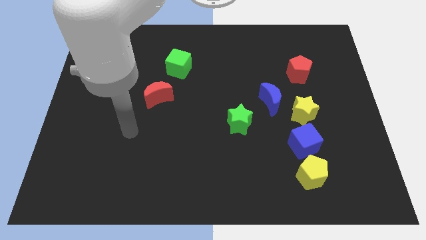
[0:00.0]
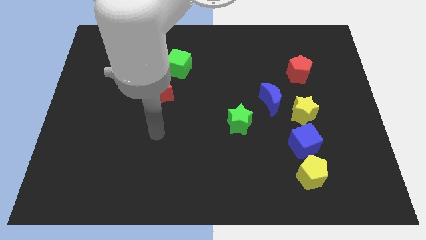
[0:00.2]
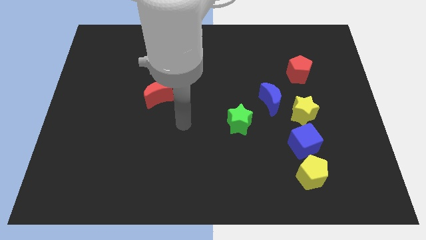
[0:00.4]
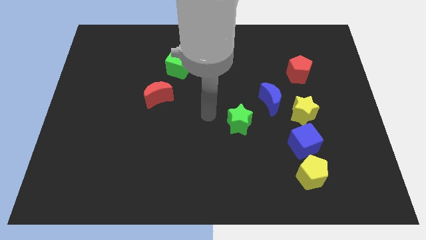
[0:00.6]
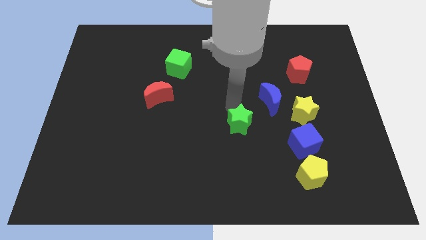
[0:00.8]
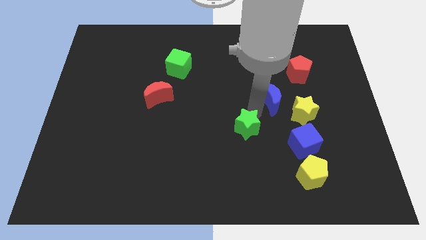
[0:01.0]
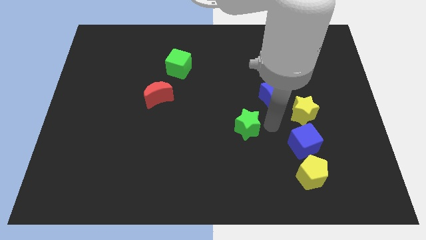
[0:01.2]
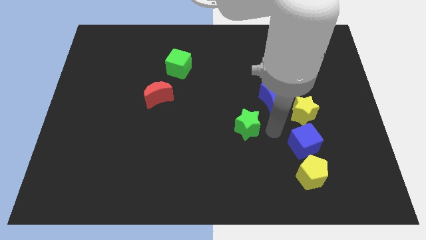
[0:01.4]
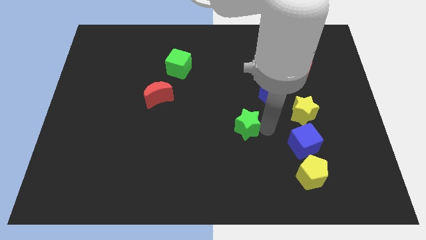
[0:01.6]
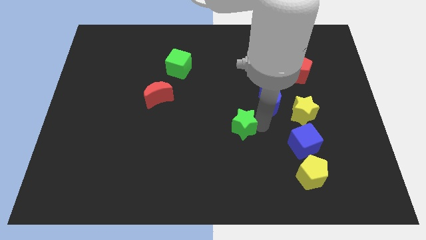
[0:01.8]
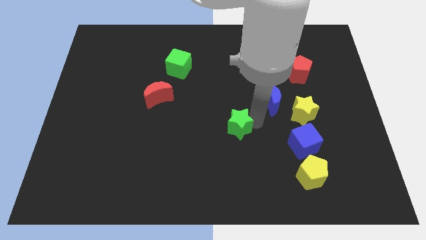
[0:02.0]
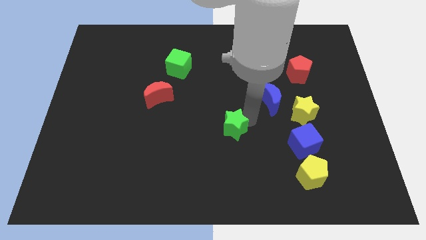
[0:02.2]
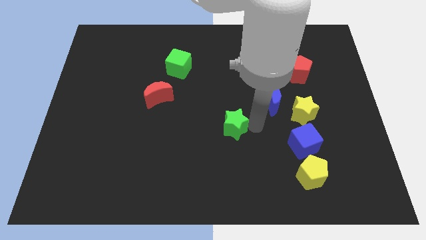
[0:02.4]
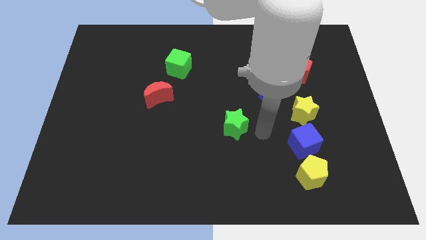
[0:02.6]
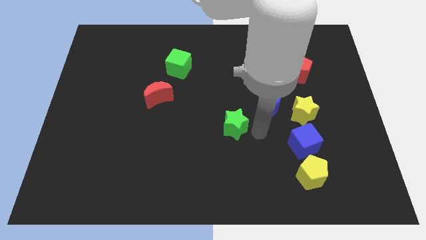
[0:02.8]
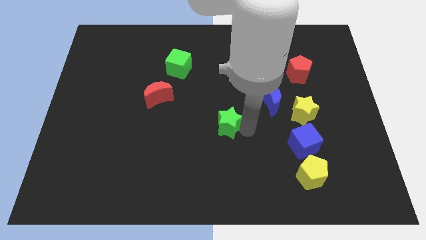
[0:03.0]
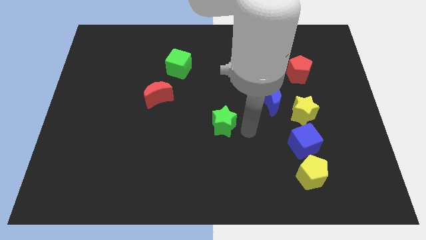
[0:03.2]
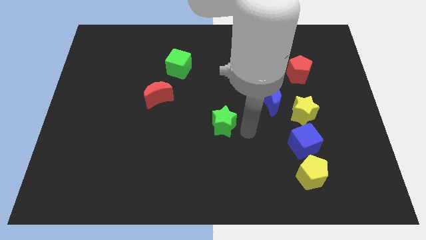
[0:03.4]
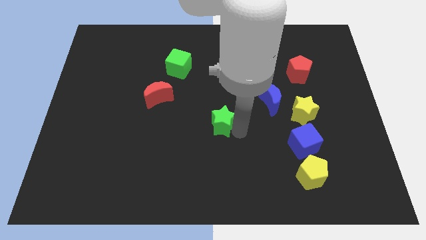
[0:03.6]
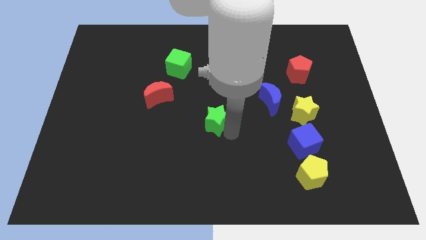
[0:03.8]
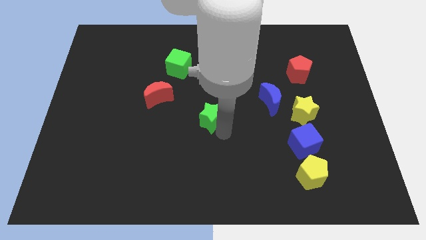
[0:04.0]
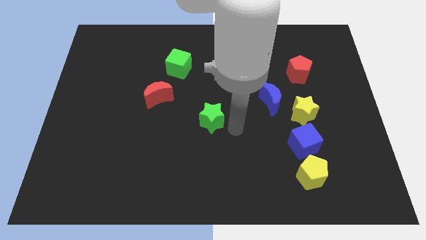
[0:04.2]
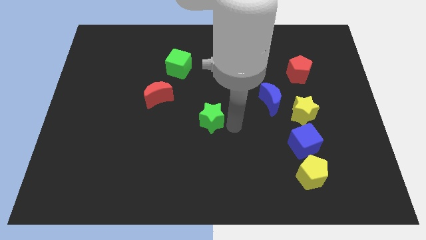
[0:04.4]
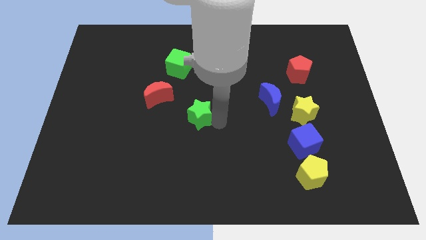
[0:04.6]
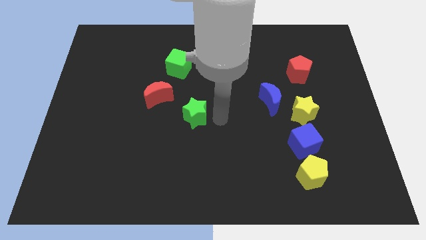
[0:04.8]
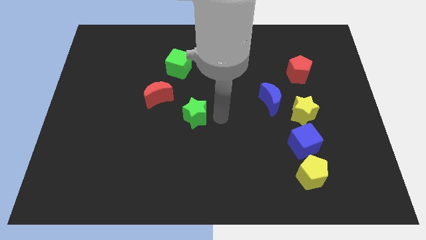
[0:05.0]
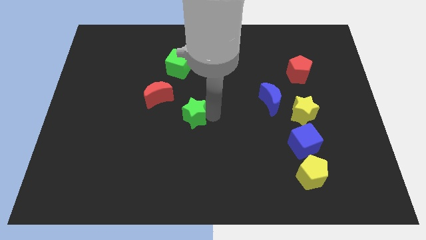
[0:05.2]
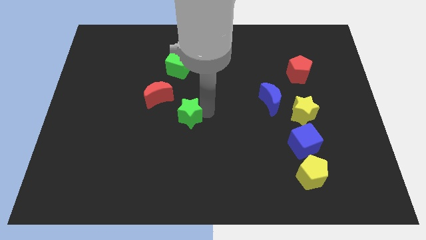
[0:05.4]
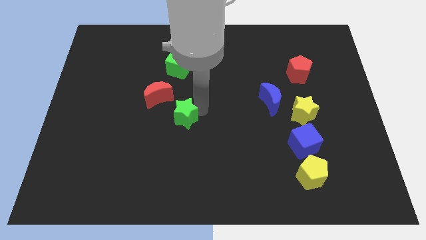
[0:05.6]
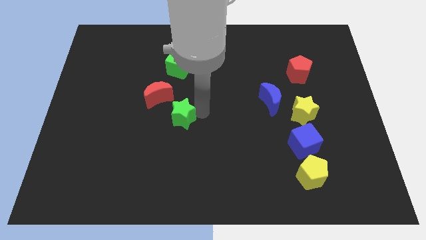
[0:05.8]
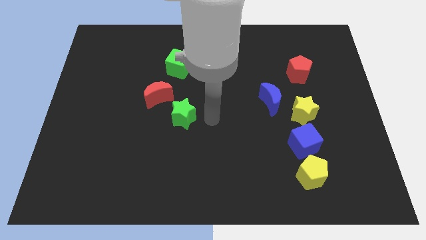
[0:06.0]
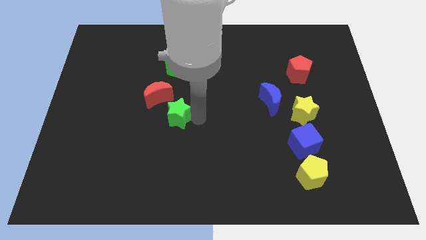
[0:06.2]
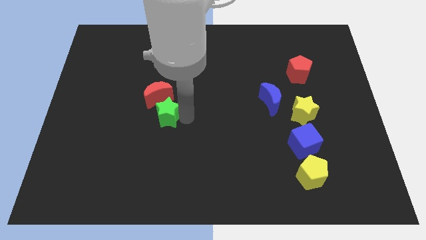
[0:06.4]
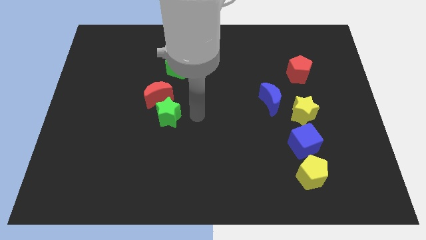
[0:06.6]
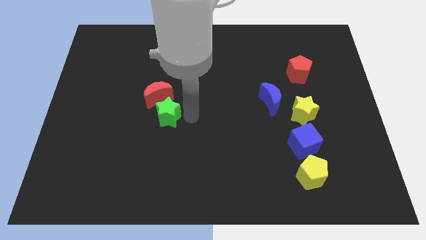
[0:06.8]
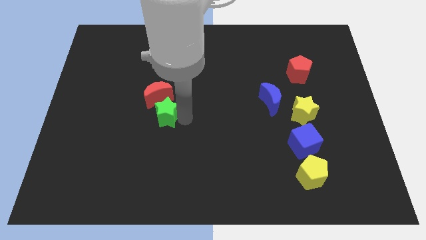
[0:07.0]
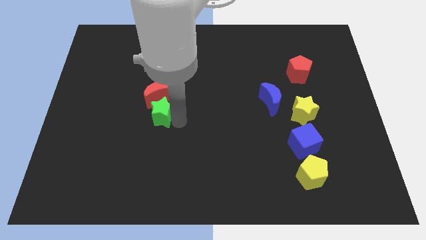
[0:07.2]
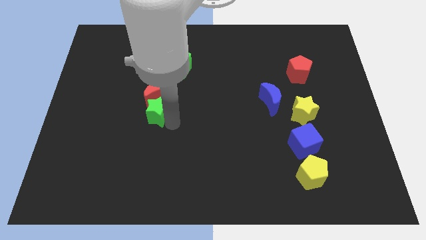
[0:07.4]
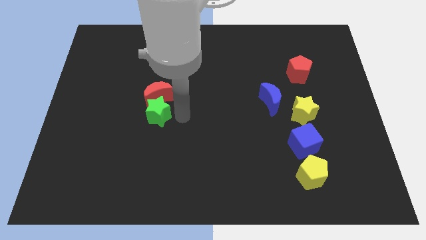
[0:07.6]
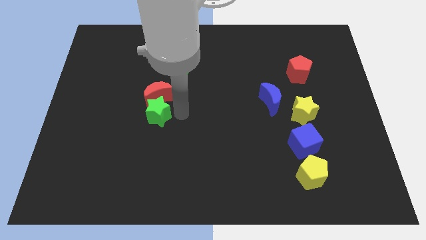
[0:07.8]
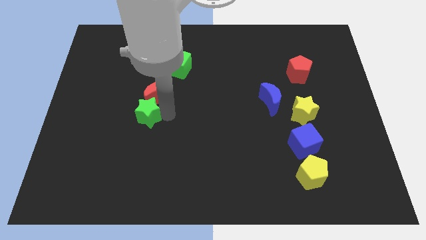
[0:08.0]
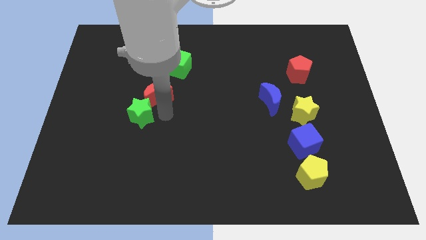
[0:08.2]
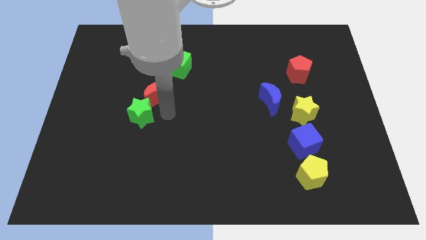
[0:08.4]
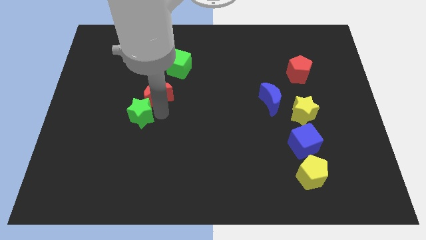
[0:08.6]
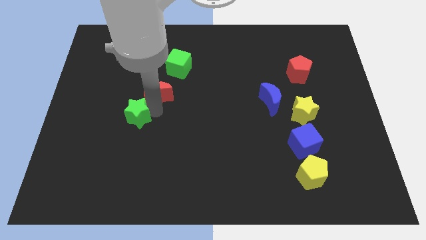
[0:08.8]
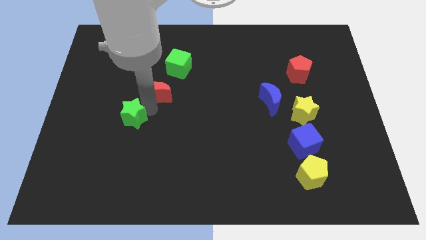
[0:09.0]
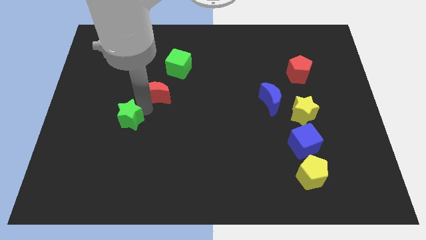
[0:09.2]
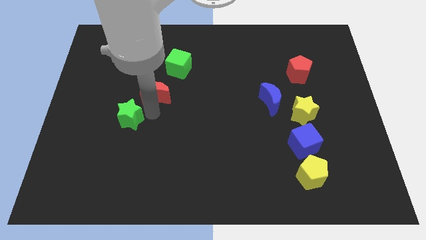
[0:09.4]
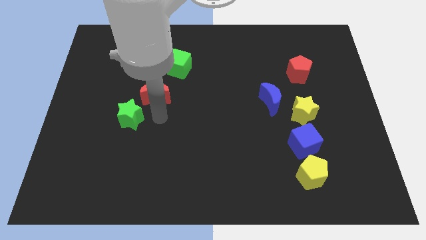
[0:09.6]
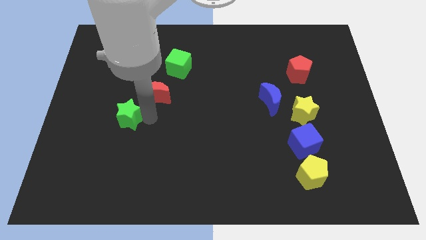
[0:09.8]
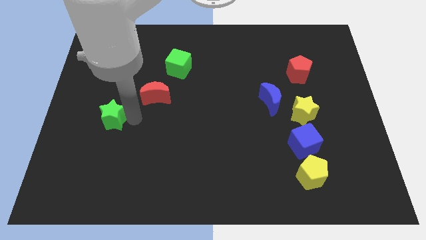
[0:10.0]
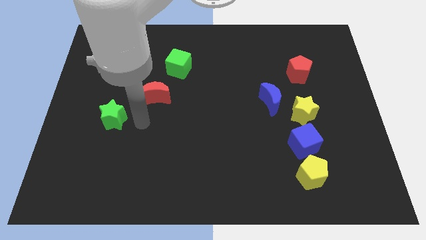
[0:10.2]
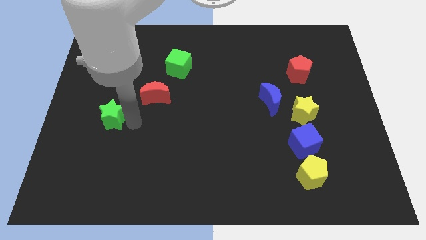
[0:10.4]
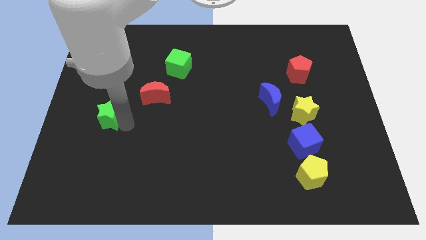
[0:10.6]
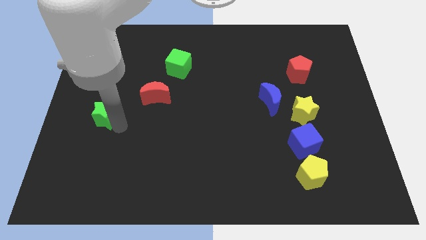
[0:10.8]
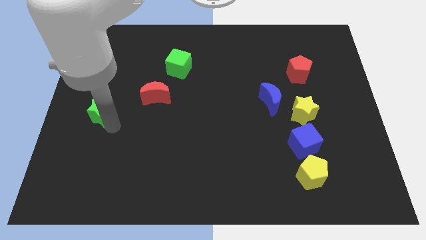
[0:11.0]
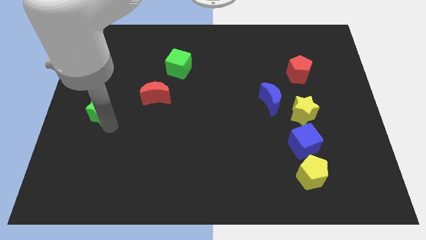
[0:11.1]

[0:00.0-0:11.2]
push the green star to the left side of the board
